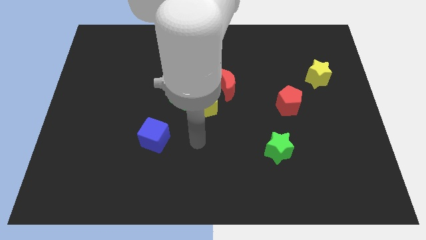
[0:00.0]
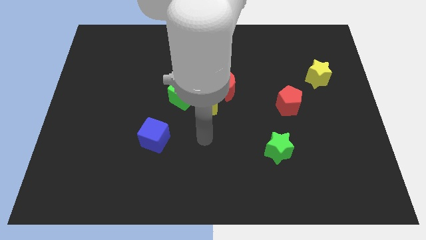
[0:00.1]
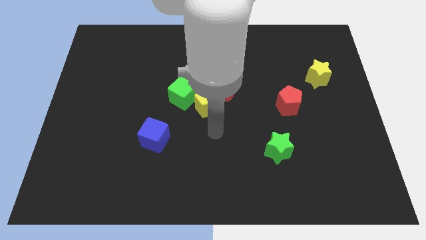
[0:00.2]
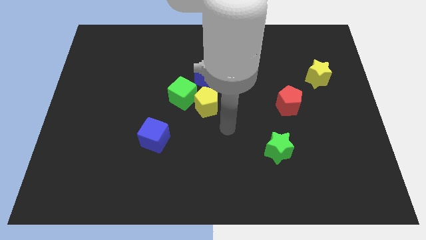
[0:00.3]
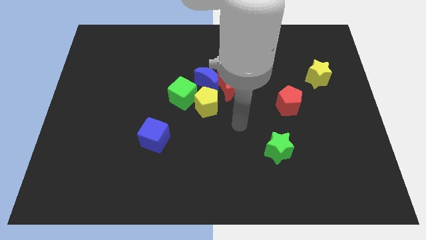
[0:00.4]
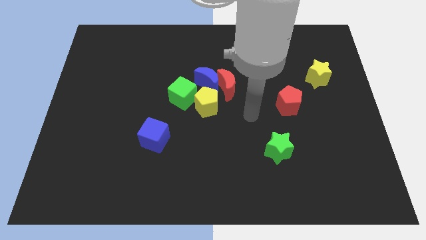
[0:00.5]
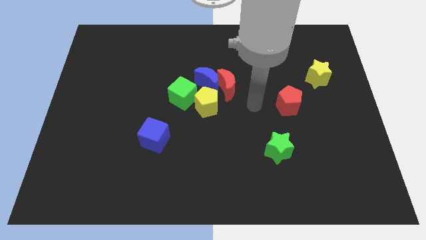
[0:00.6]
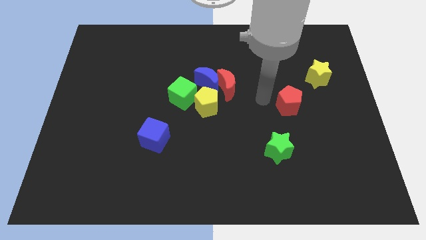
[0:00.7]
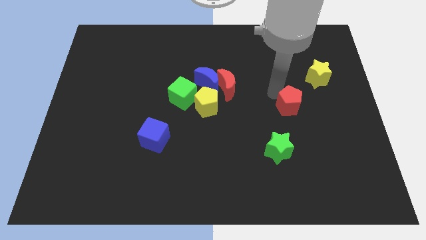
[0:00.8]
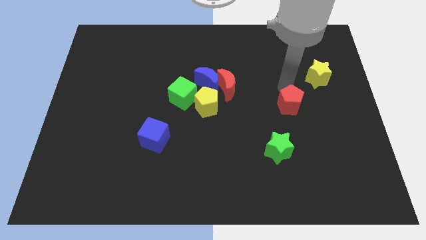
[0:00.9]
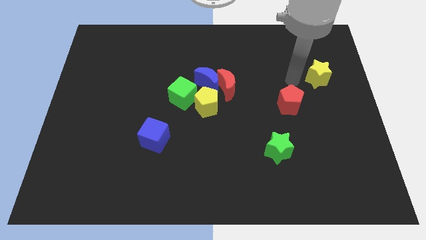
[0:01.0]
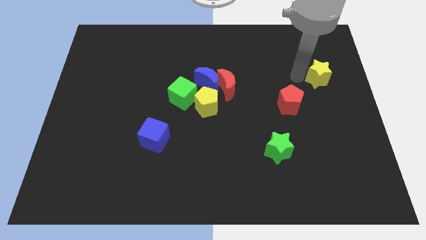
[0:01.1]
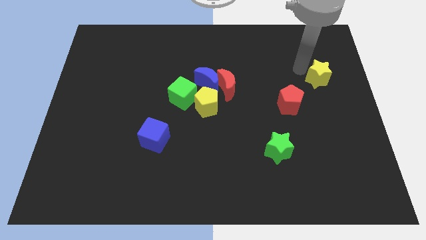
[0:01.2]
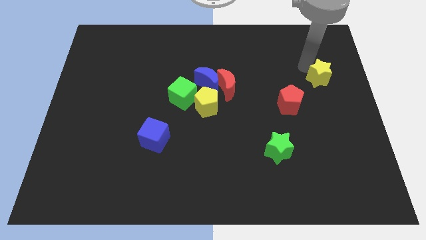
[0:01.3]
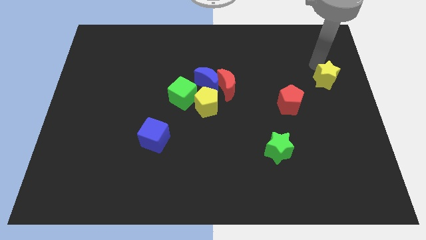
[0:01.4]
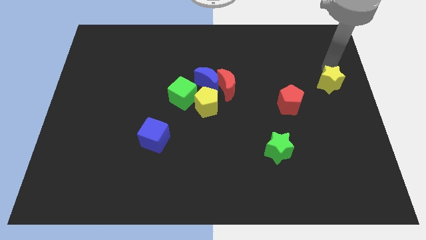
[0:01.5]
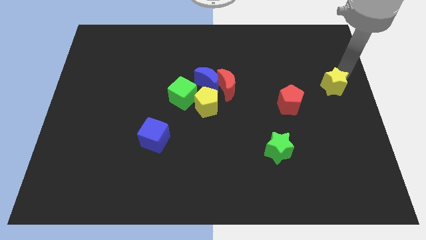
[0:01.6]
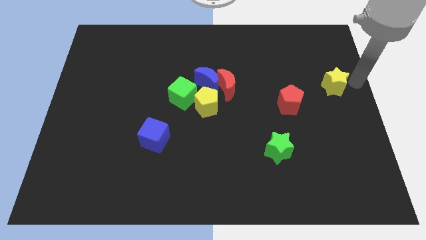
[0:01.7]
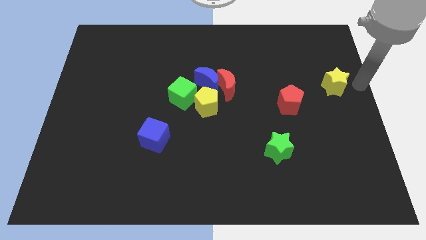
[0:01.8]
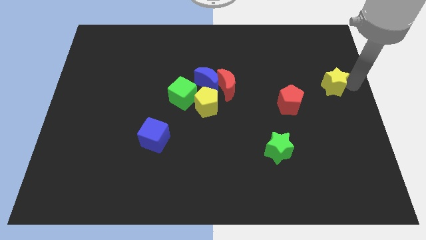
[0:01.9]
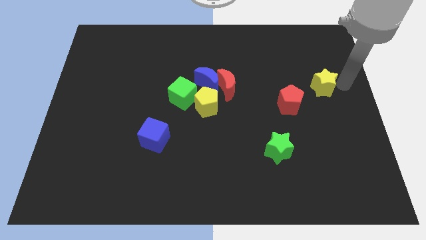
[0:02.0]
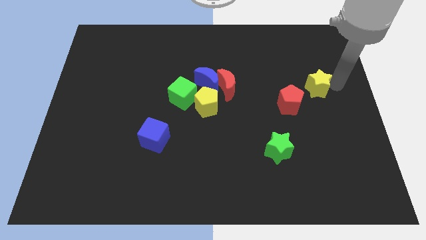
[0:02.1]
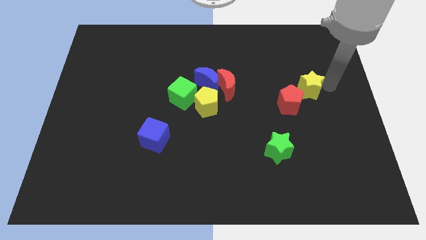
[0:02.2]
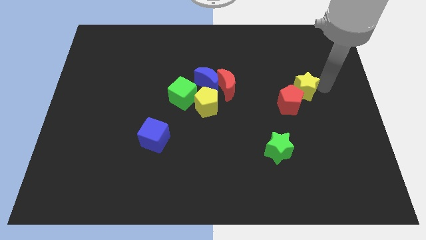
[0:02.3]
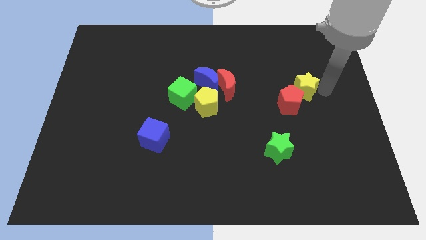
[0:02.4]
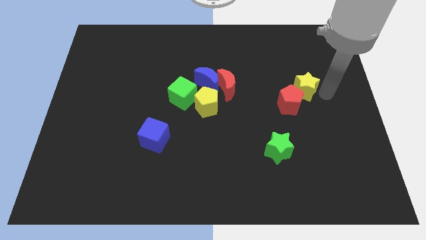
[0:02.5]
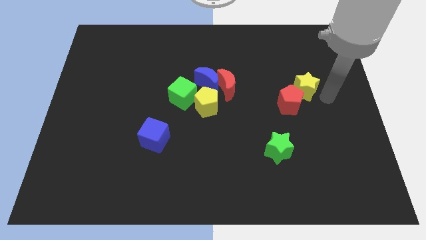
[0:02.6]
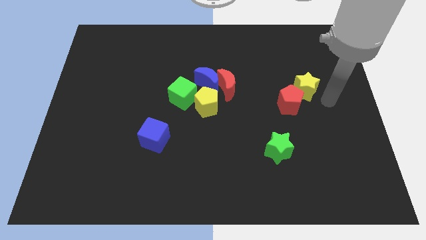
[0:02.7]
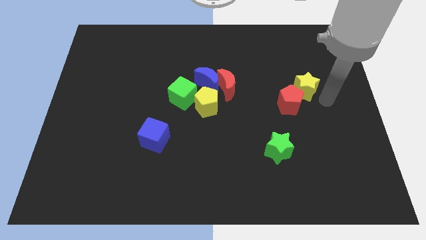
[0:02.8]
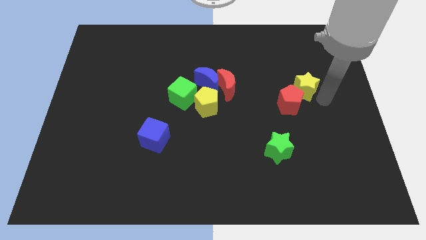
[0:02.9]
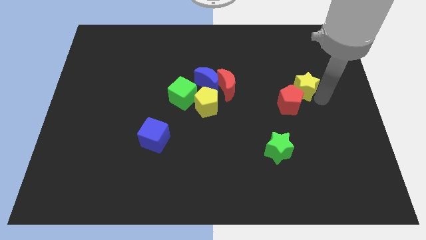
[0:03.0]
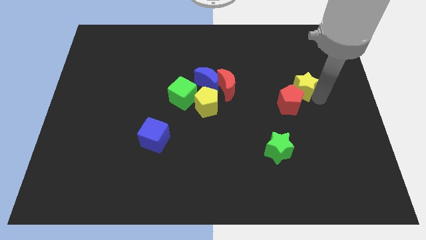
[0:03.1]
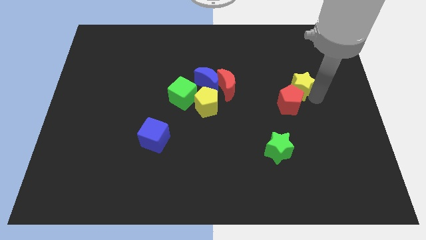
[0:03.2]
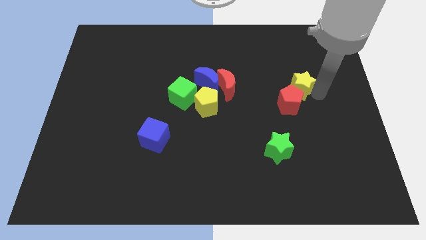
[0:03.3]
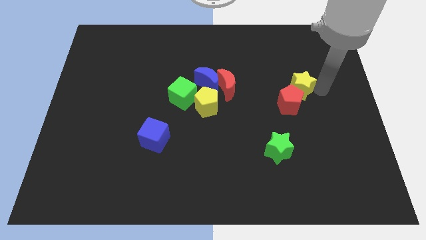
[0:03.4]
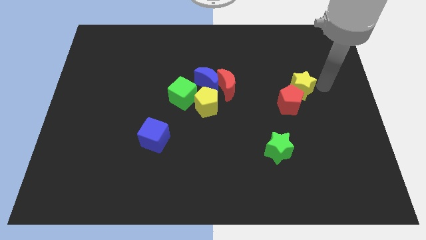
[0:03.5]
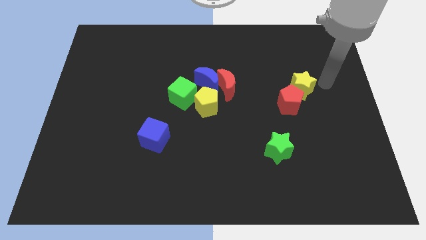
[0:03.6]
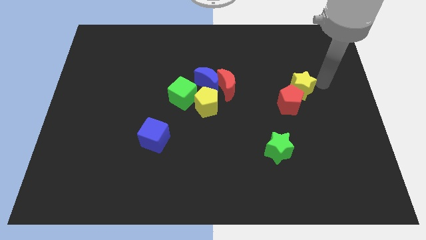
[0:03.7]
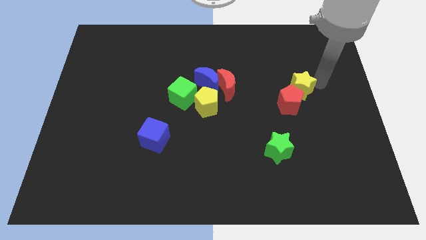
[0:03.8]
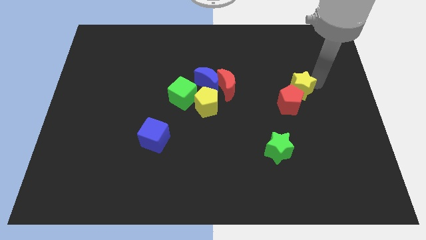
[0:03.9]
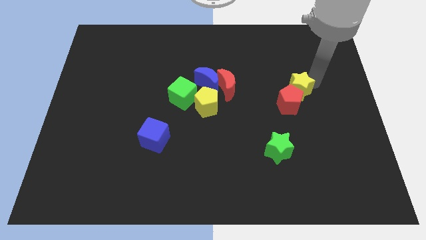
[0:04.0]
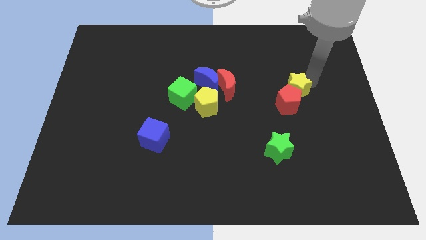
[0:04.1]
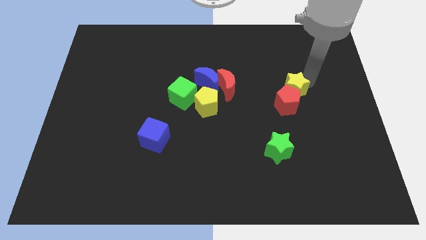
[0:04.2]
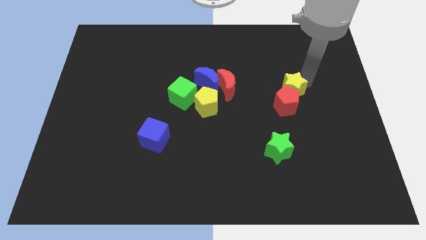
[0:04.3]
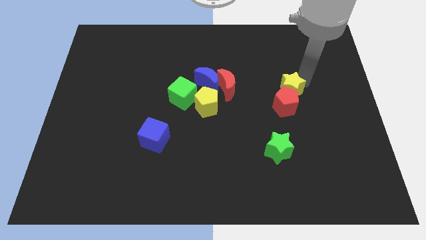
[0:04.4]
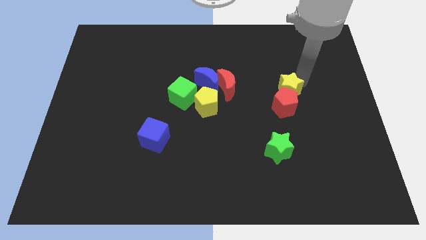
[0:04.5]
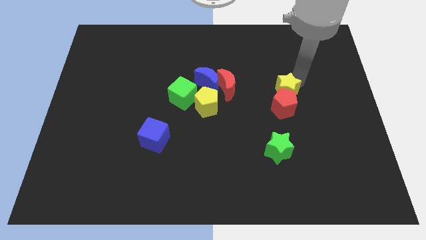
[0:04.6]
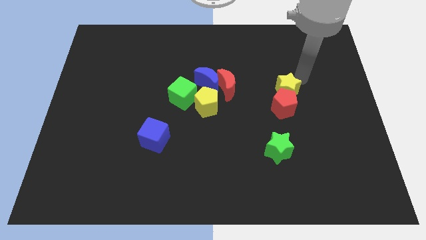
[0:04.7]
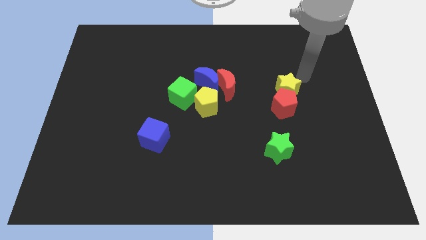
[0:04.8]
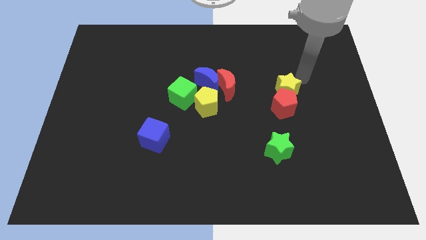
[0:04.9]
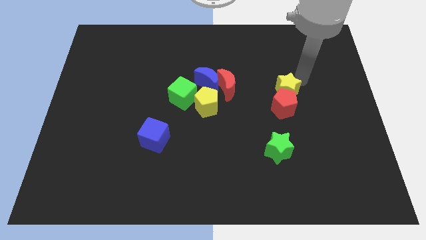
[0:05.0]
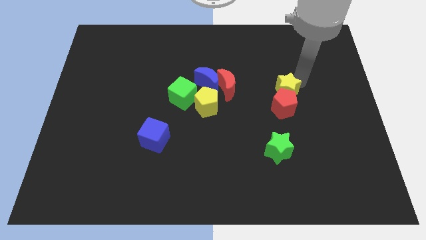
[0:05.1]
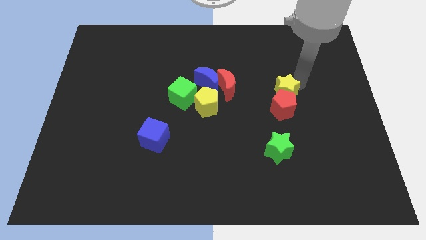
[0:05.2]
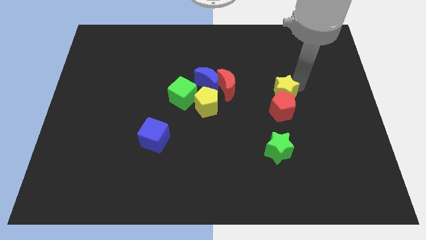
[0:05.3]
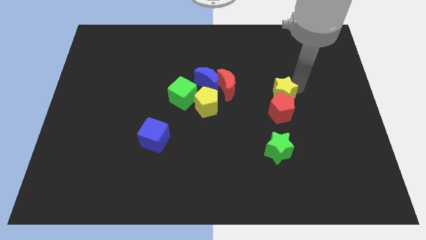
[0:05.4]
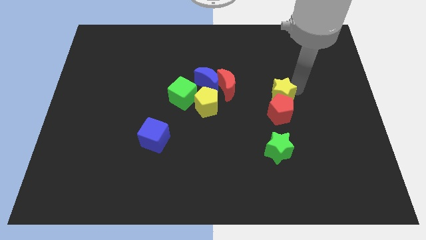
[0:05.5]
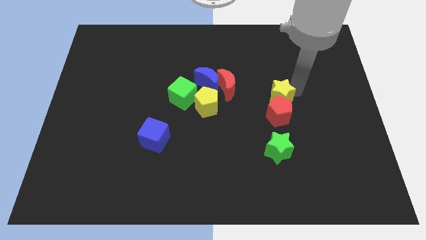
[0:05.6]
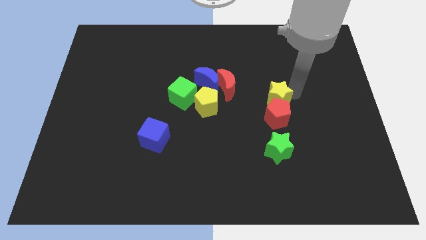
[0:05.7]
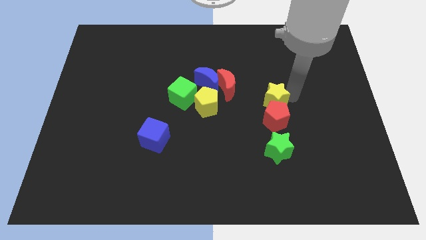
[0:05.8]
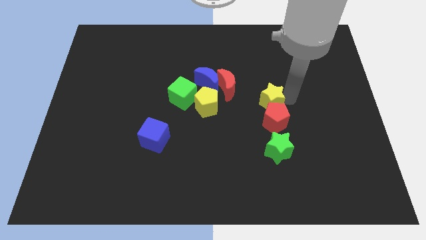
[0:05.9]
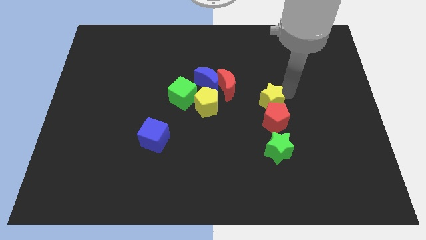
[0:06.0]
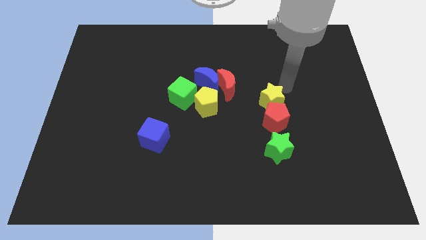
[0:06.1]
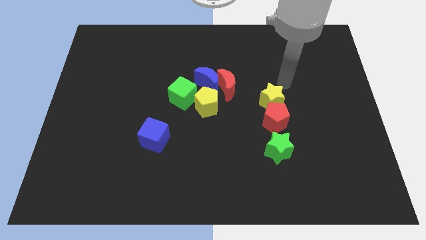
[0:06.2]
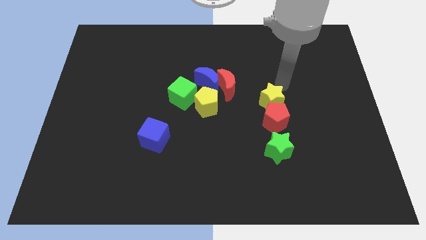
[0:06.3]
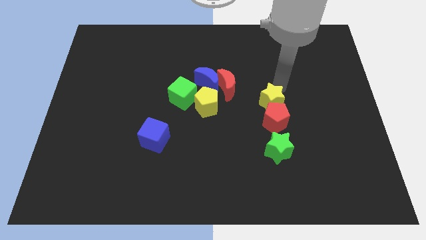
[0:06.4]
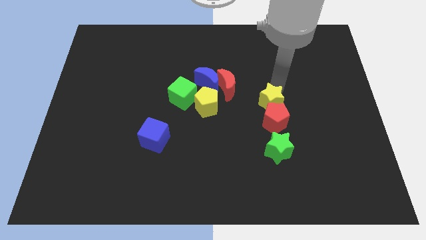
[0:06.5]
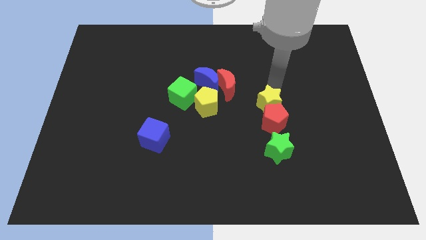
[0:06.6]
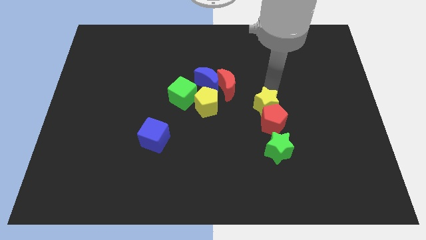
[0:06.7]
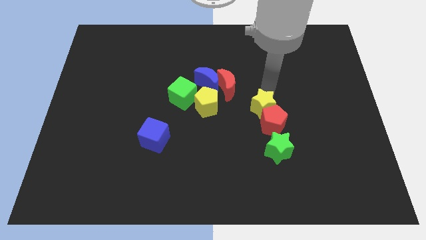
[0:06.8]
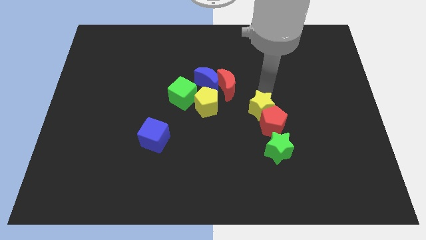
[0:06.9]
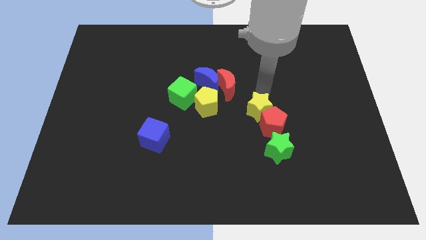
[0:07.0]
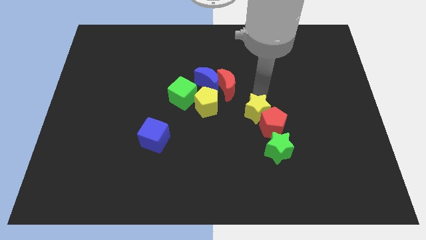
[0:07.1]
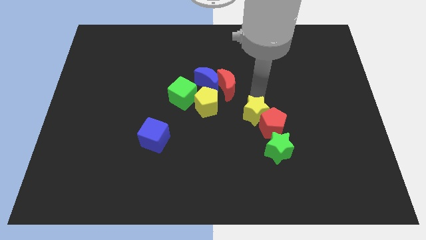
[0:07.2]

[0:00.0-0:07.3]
slide the yellow star diagonally up and to the left of the green star

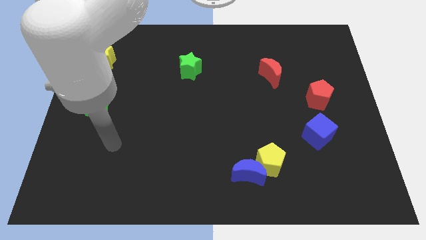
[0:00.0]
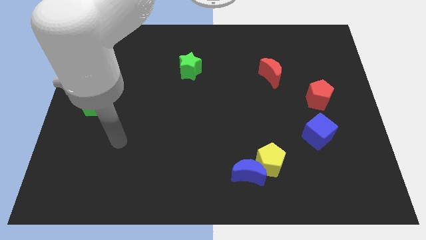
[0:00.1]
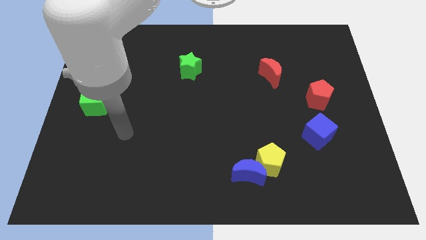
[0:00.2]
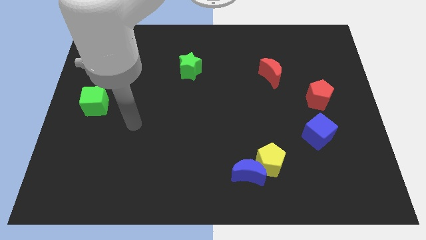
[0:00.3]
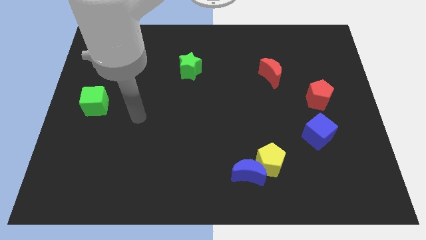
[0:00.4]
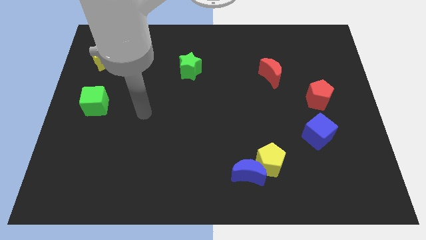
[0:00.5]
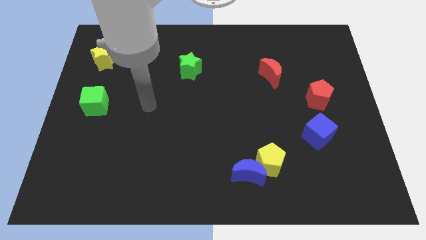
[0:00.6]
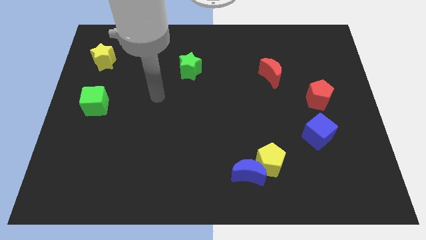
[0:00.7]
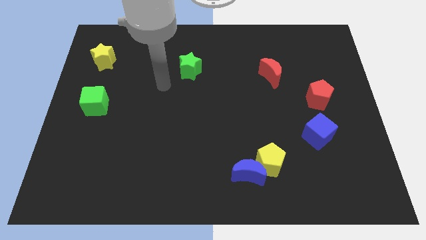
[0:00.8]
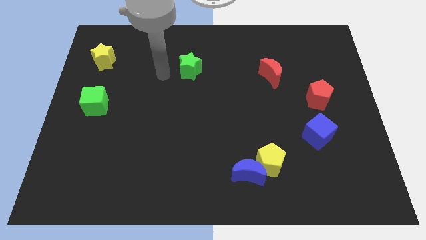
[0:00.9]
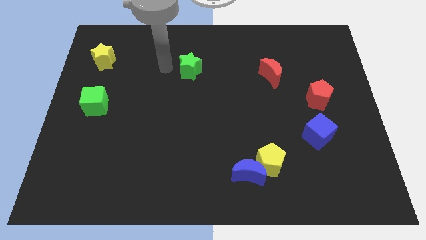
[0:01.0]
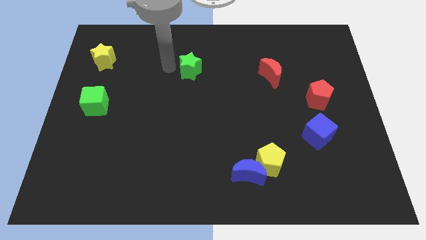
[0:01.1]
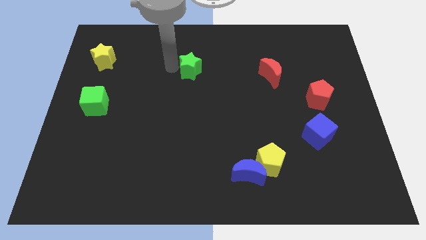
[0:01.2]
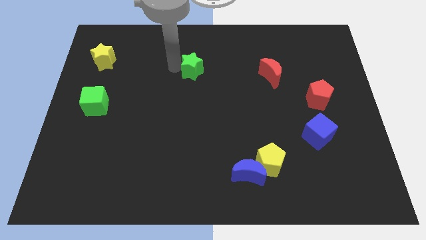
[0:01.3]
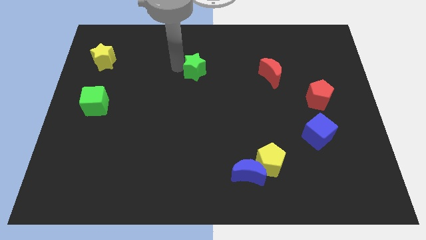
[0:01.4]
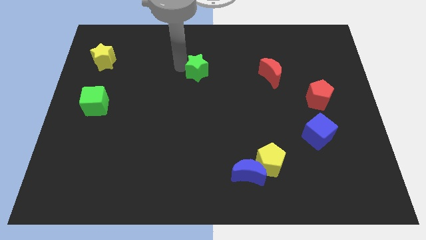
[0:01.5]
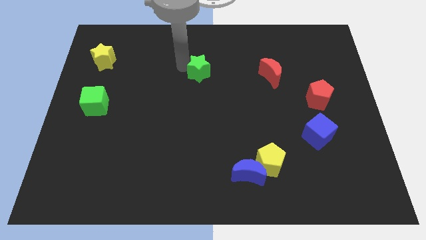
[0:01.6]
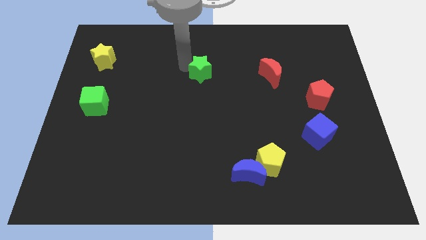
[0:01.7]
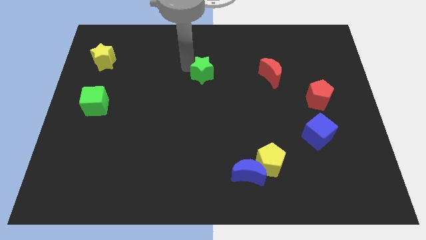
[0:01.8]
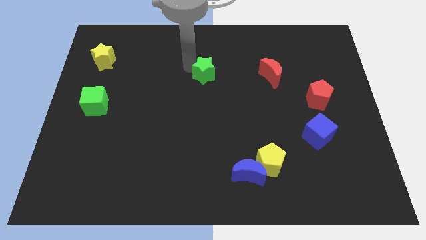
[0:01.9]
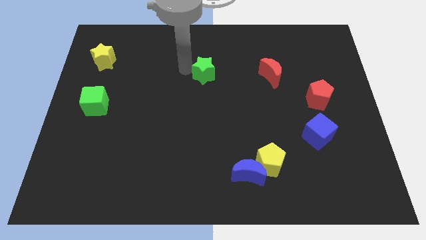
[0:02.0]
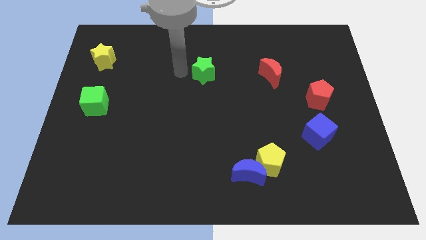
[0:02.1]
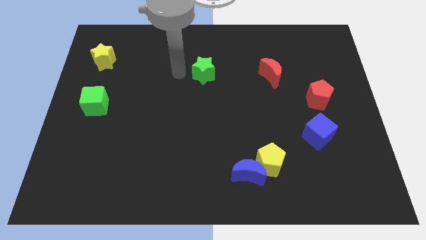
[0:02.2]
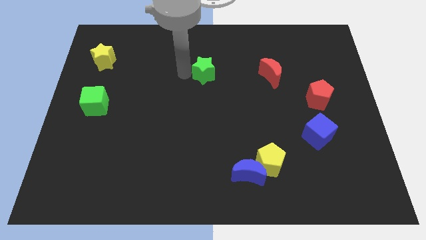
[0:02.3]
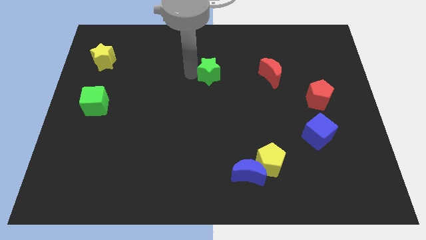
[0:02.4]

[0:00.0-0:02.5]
push the green star to the left of the red moon
